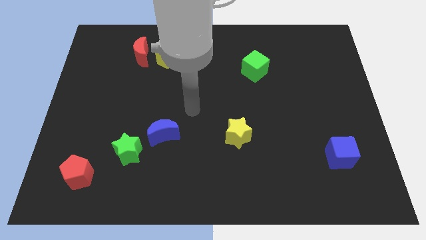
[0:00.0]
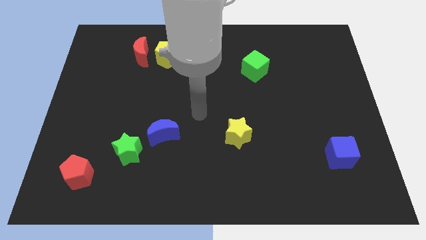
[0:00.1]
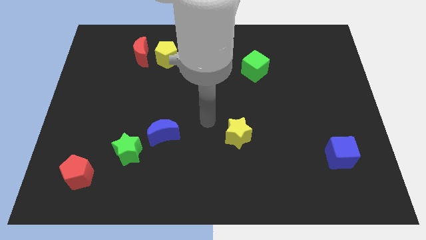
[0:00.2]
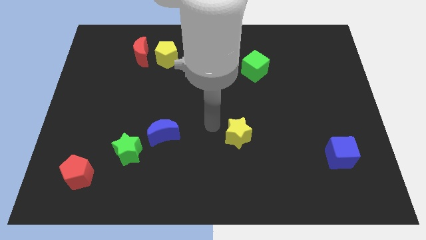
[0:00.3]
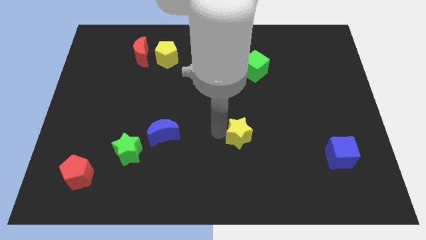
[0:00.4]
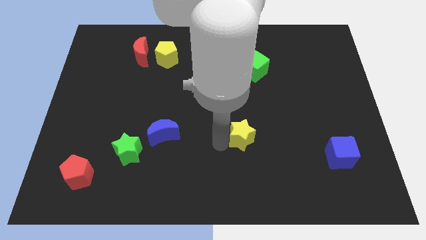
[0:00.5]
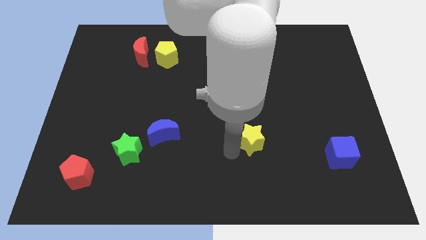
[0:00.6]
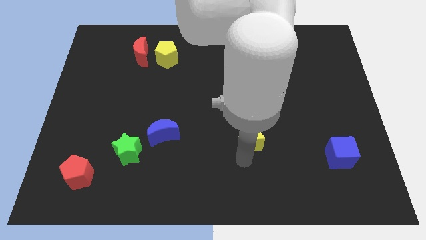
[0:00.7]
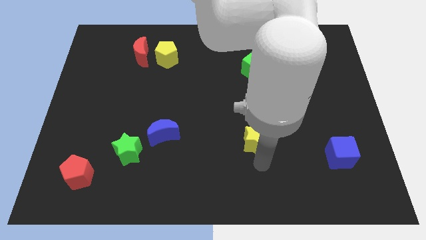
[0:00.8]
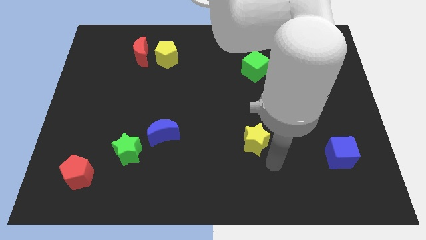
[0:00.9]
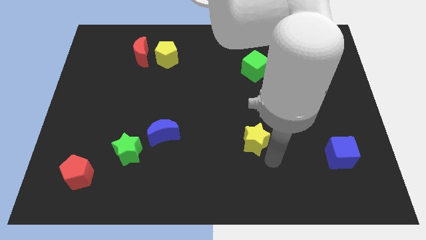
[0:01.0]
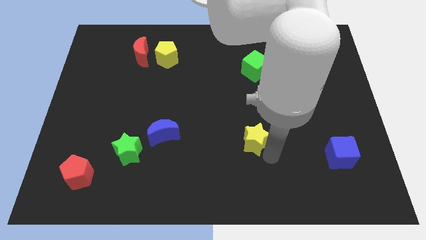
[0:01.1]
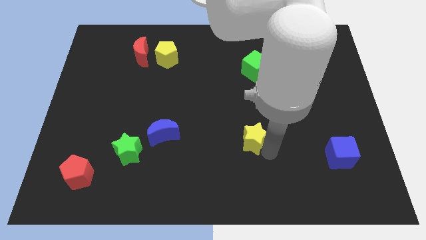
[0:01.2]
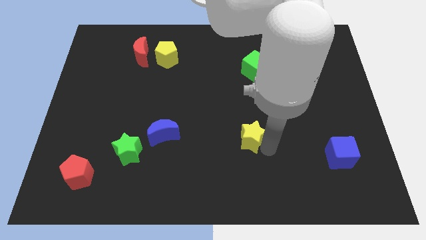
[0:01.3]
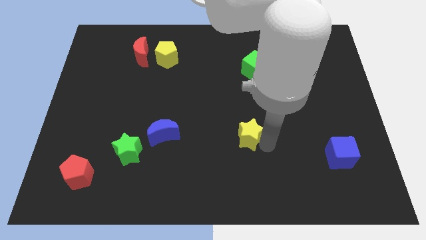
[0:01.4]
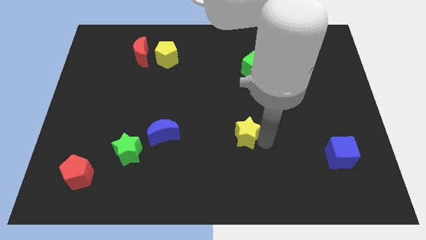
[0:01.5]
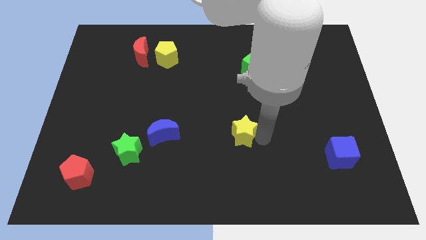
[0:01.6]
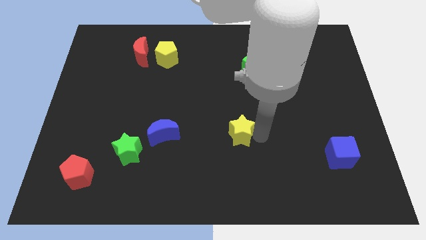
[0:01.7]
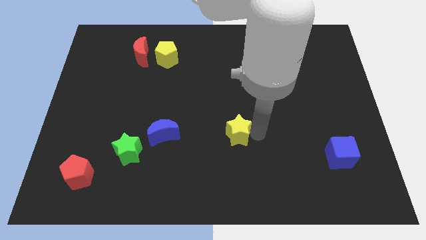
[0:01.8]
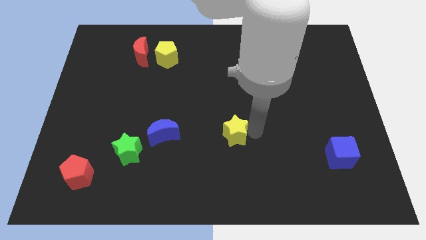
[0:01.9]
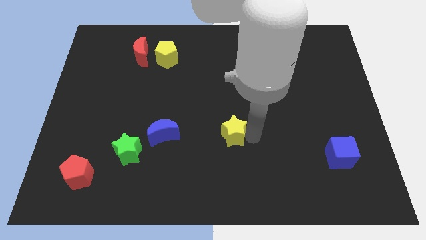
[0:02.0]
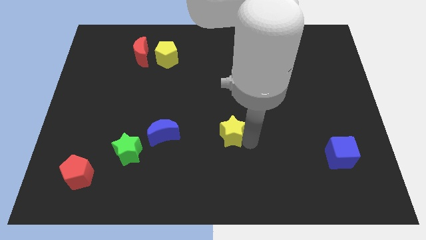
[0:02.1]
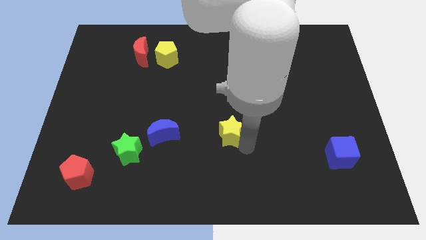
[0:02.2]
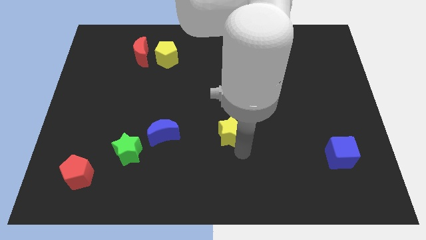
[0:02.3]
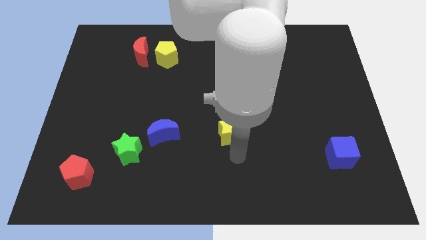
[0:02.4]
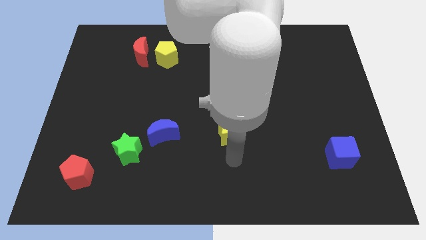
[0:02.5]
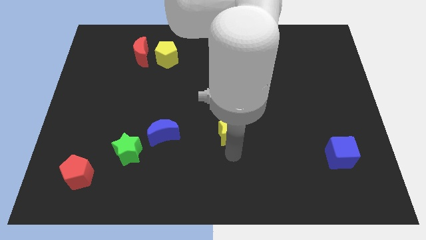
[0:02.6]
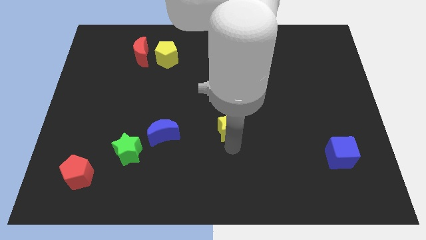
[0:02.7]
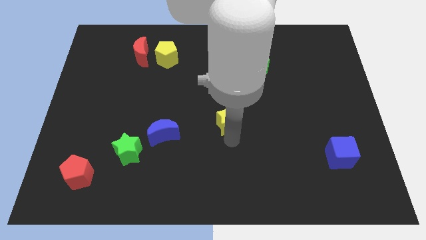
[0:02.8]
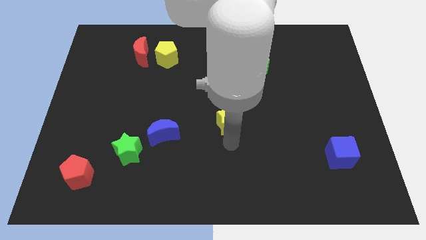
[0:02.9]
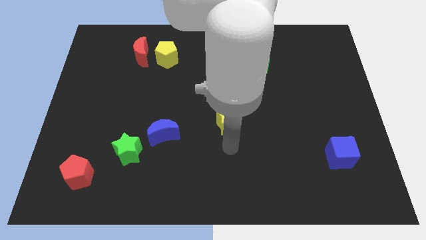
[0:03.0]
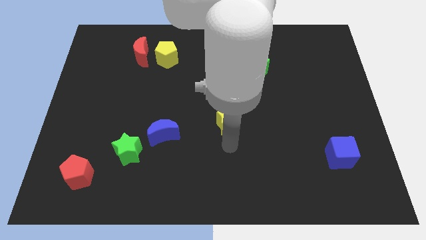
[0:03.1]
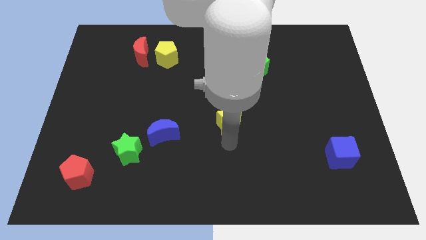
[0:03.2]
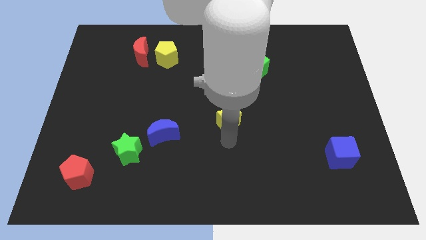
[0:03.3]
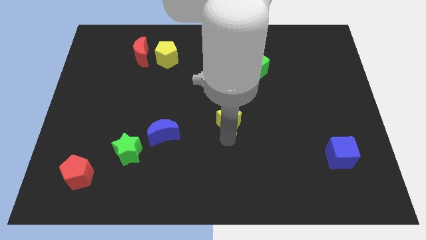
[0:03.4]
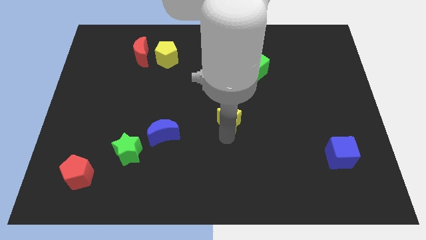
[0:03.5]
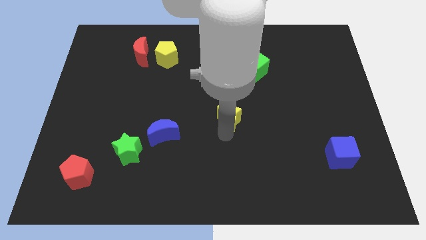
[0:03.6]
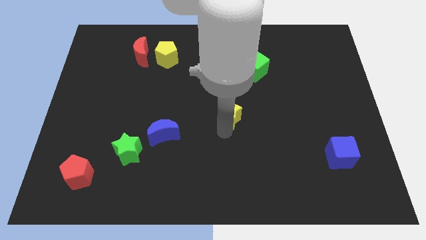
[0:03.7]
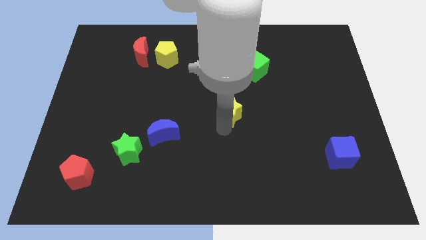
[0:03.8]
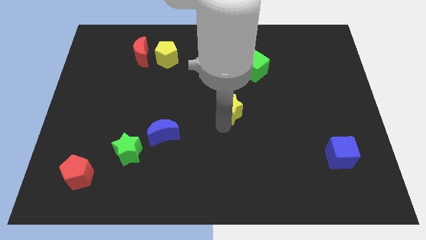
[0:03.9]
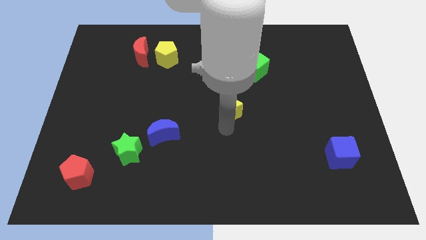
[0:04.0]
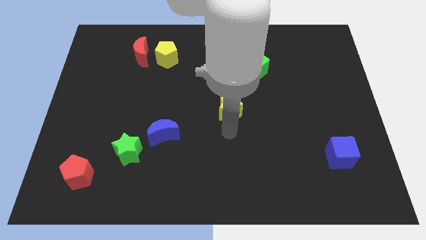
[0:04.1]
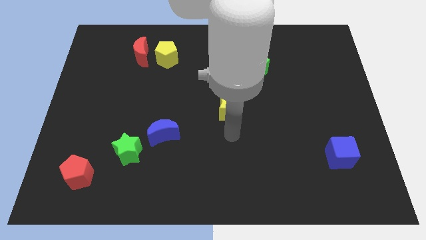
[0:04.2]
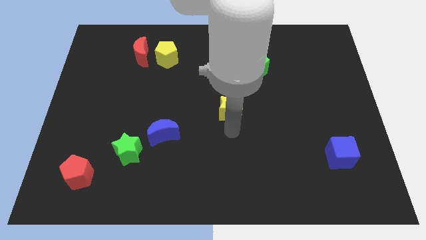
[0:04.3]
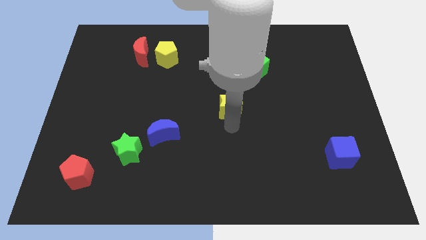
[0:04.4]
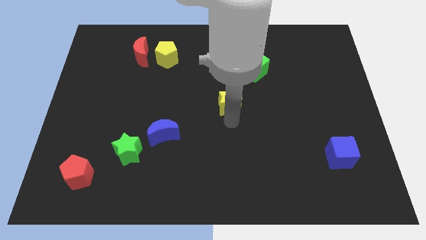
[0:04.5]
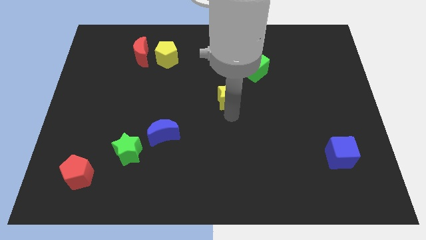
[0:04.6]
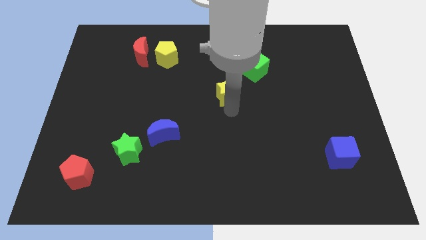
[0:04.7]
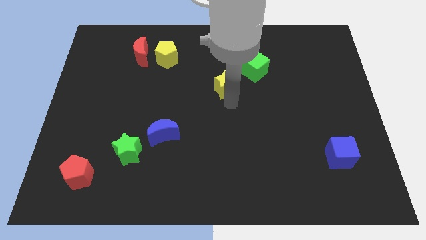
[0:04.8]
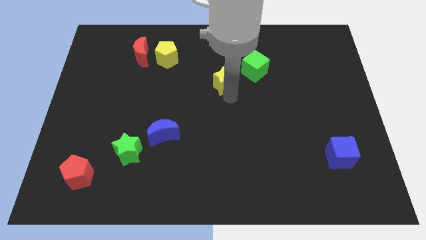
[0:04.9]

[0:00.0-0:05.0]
put the yellow star left of the green cube

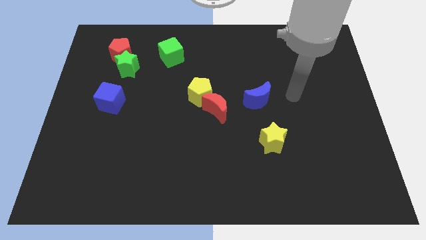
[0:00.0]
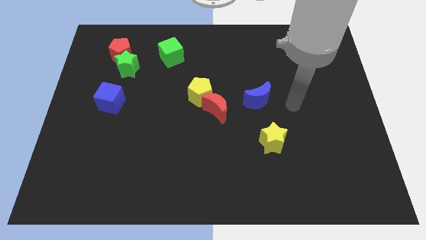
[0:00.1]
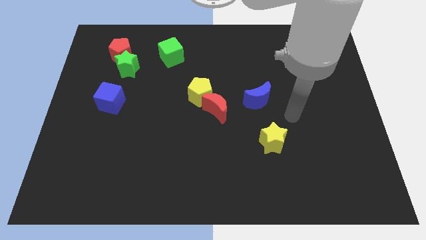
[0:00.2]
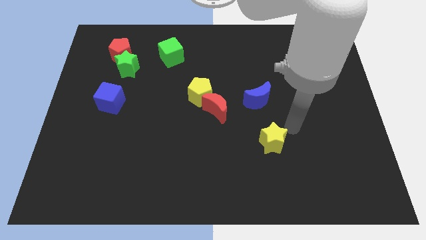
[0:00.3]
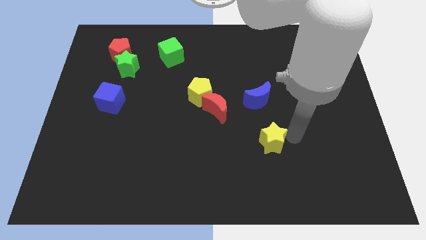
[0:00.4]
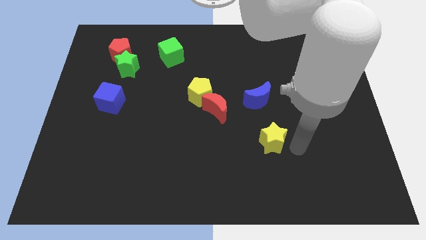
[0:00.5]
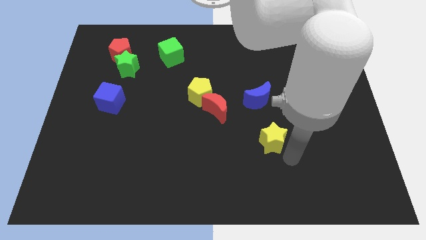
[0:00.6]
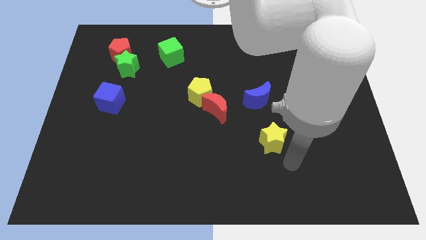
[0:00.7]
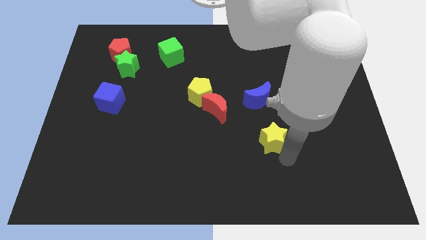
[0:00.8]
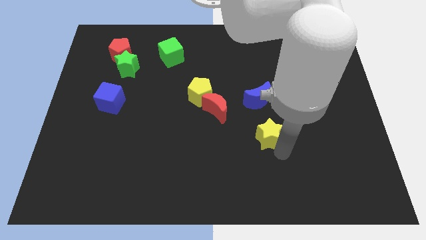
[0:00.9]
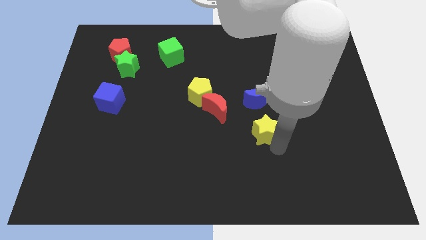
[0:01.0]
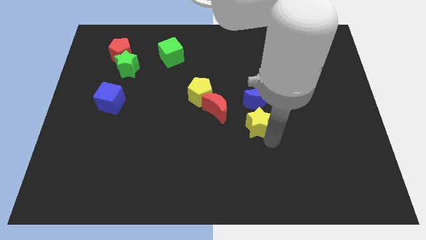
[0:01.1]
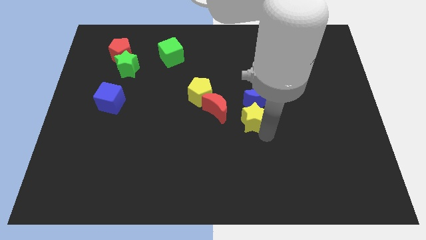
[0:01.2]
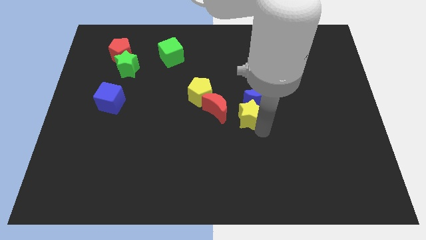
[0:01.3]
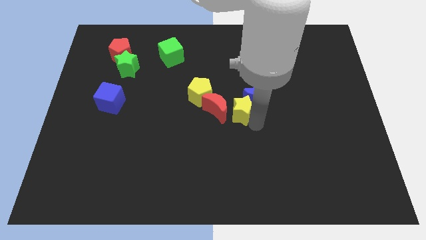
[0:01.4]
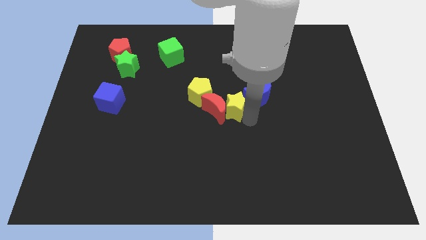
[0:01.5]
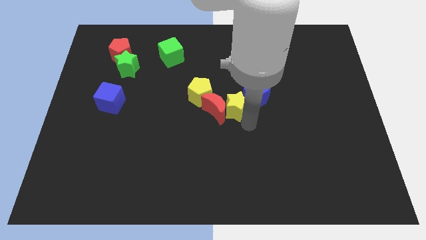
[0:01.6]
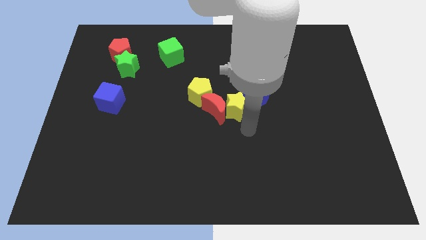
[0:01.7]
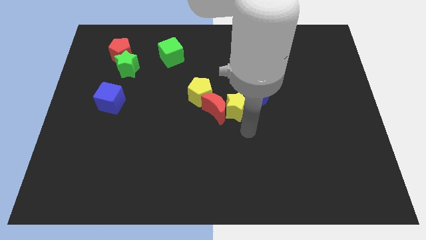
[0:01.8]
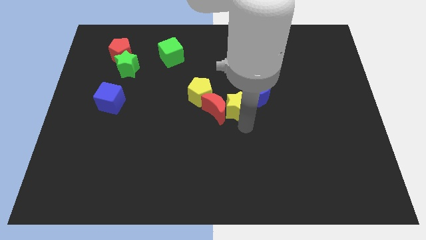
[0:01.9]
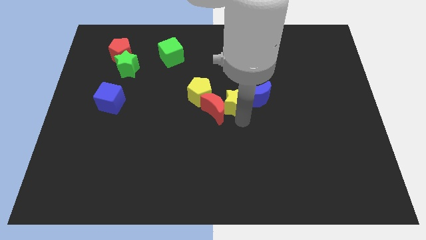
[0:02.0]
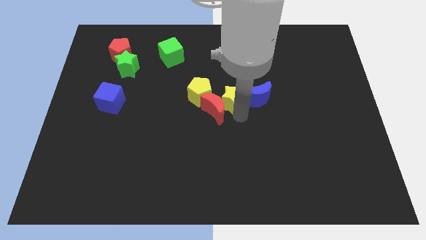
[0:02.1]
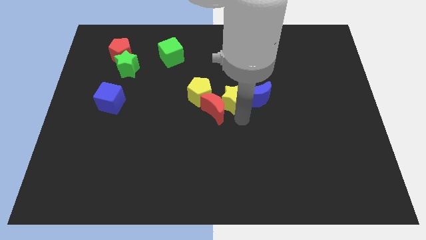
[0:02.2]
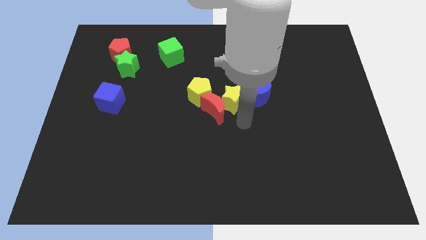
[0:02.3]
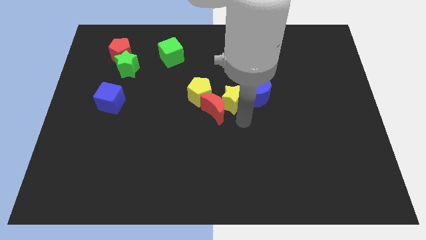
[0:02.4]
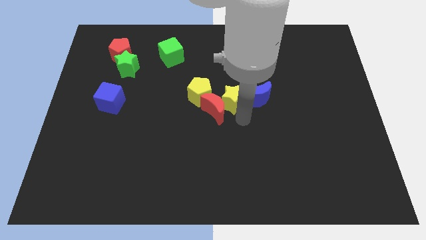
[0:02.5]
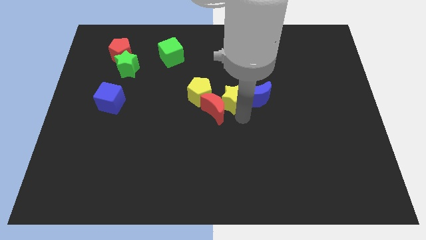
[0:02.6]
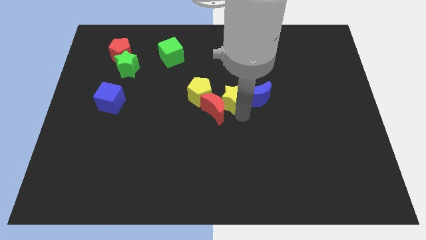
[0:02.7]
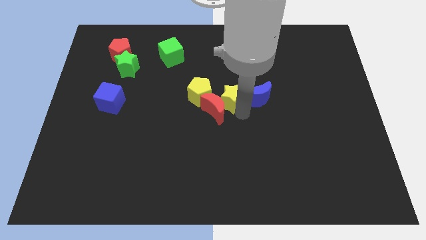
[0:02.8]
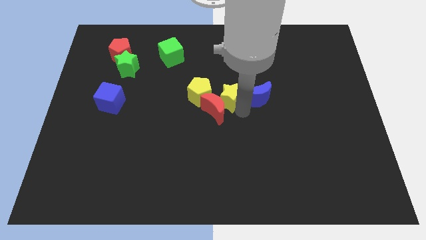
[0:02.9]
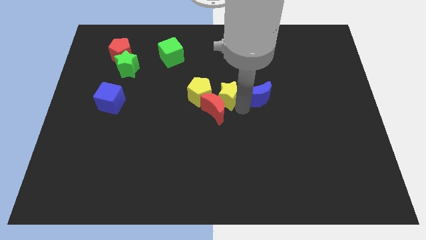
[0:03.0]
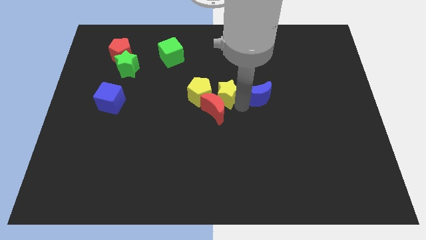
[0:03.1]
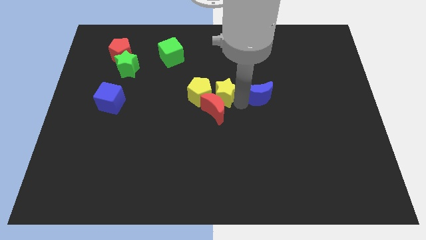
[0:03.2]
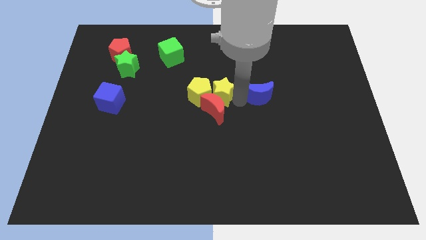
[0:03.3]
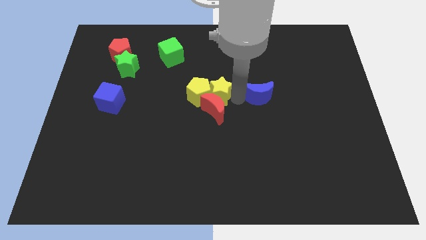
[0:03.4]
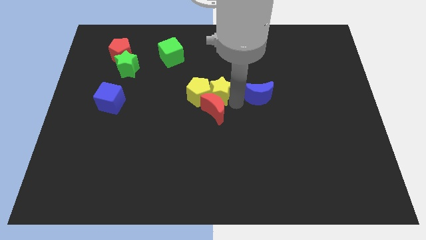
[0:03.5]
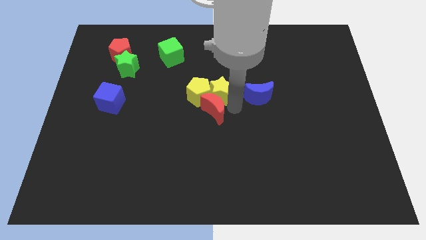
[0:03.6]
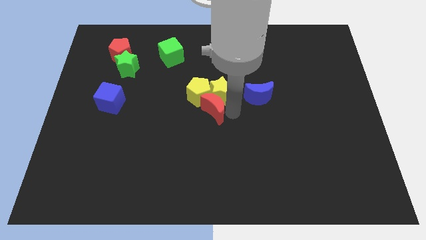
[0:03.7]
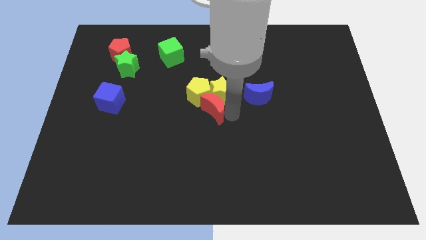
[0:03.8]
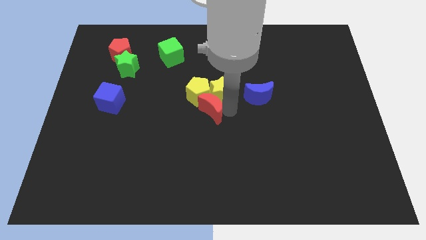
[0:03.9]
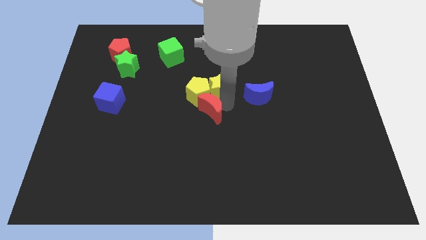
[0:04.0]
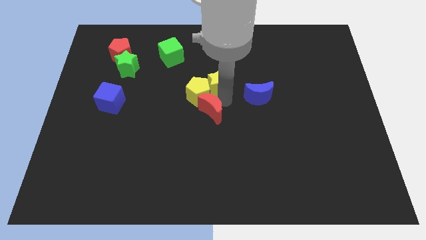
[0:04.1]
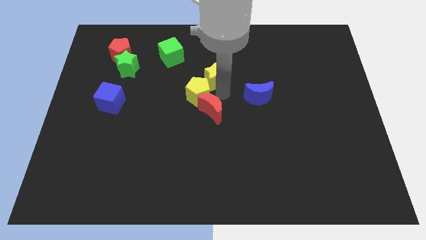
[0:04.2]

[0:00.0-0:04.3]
put the yellow star to the top side of the yellow pentagon
